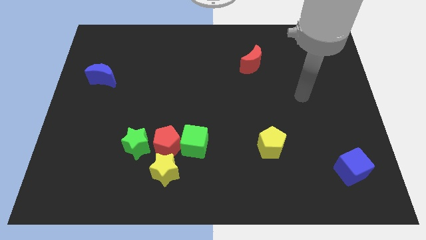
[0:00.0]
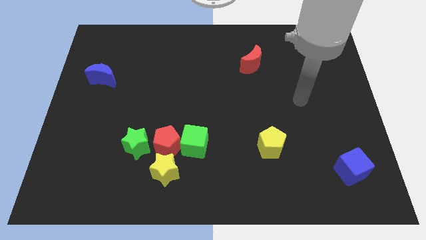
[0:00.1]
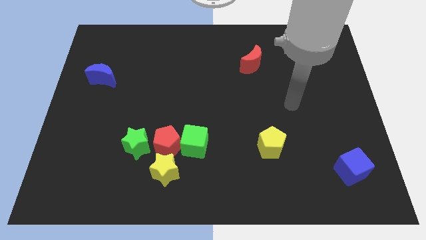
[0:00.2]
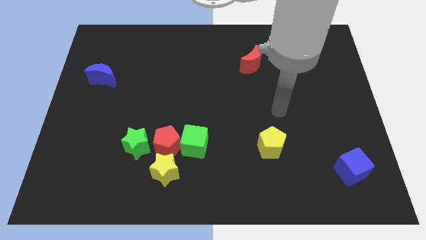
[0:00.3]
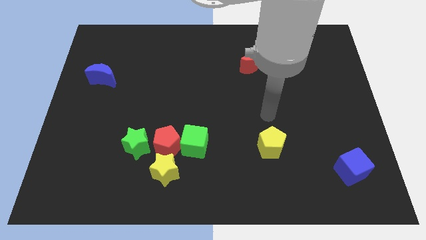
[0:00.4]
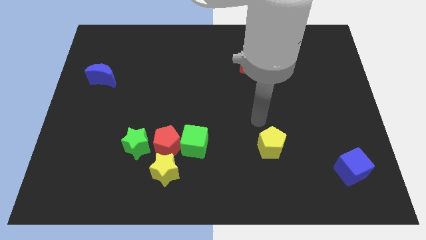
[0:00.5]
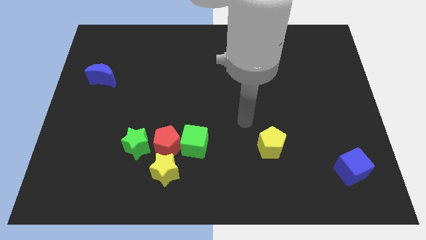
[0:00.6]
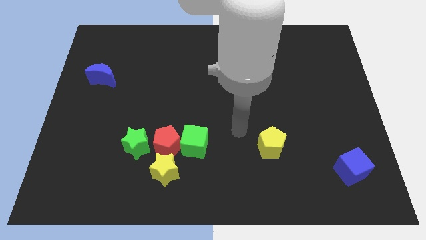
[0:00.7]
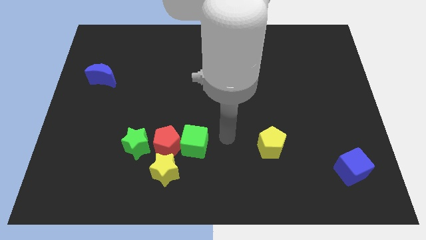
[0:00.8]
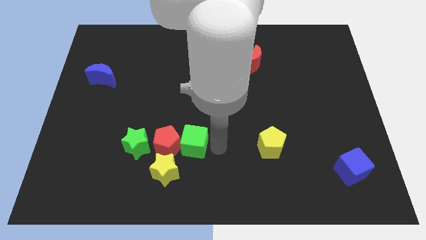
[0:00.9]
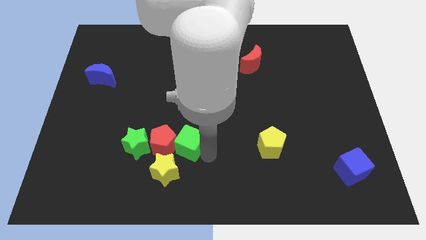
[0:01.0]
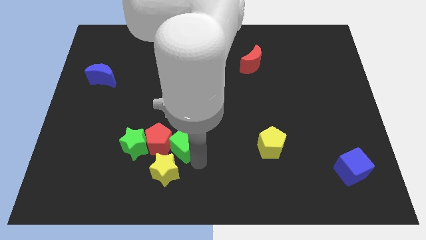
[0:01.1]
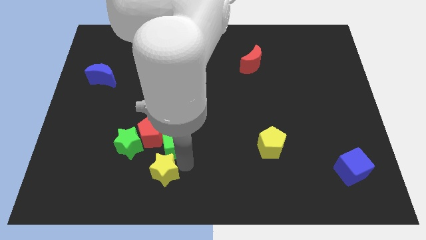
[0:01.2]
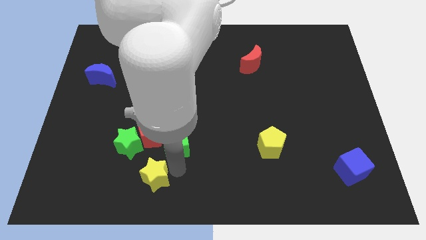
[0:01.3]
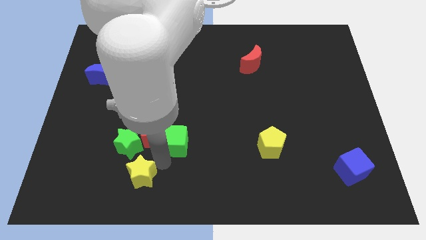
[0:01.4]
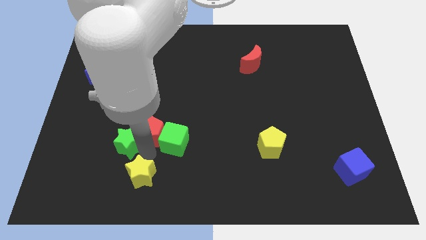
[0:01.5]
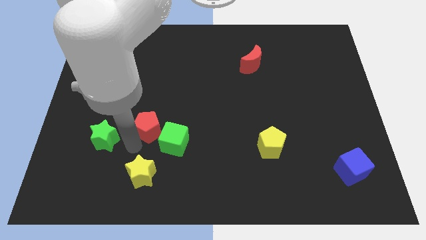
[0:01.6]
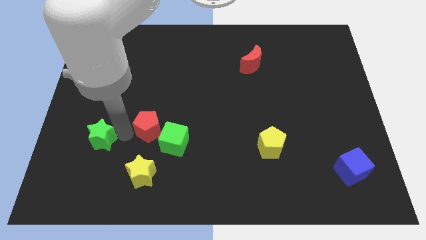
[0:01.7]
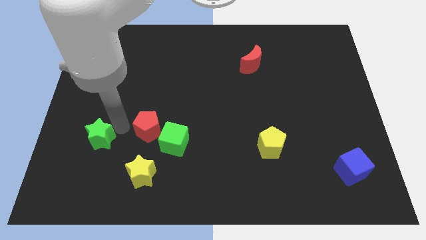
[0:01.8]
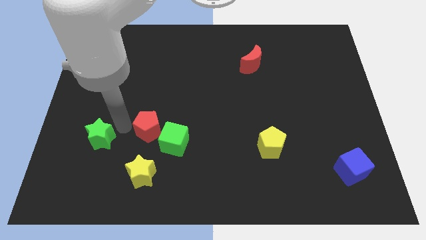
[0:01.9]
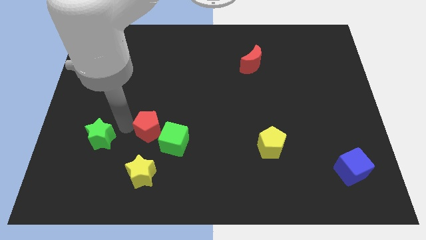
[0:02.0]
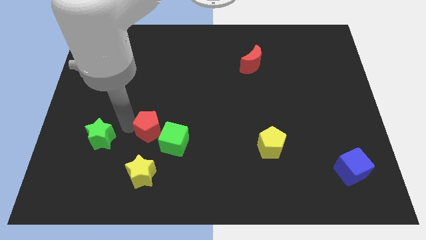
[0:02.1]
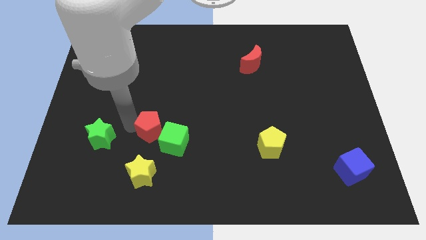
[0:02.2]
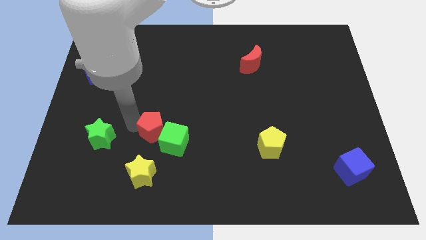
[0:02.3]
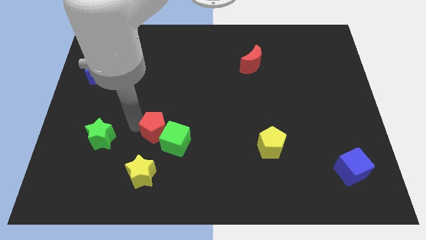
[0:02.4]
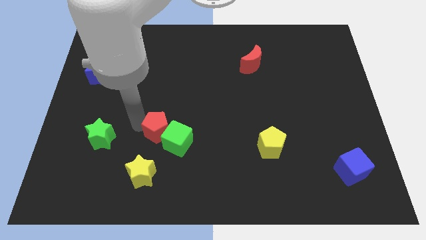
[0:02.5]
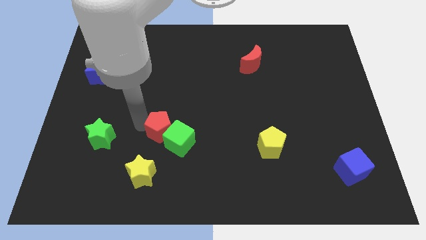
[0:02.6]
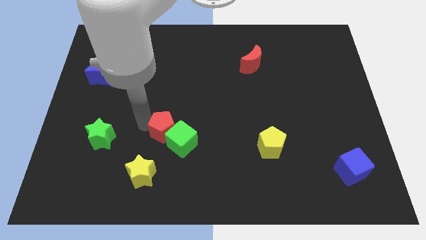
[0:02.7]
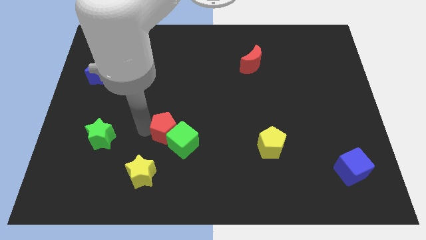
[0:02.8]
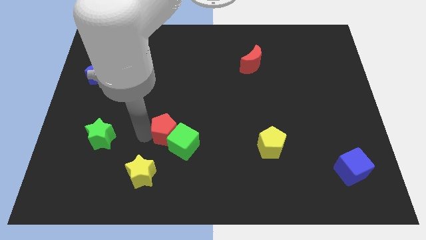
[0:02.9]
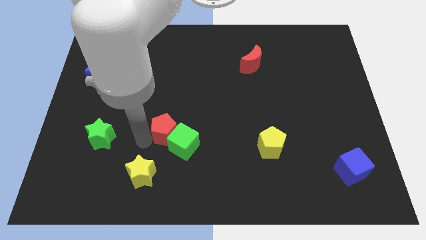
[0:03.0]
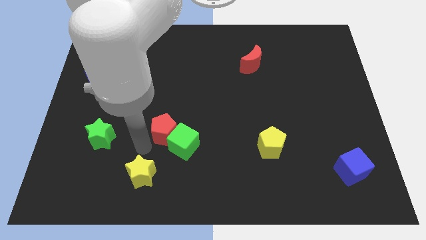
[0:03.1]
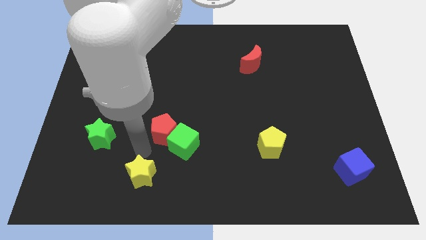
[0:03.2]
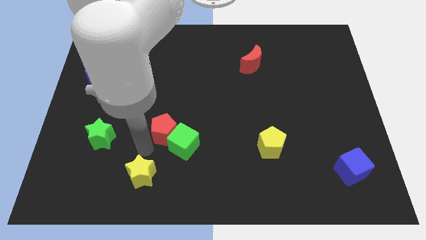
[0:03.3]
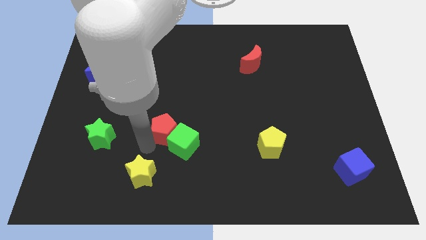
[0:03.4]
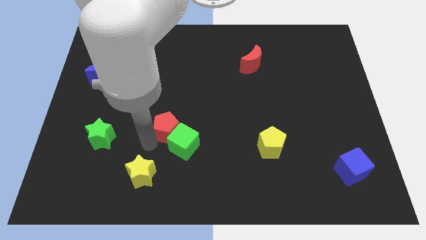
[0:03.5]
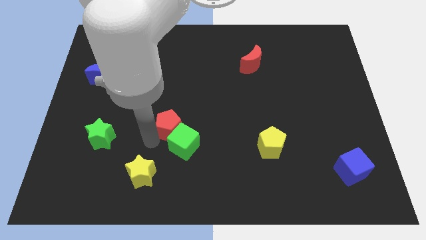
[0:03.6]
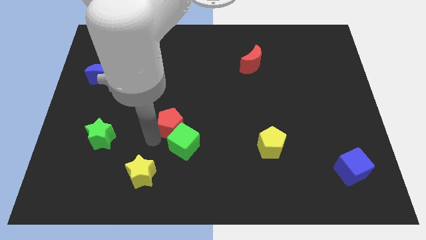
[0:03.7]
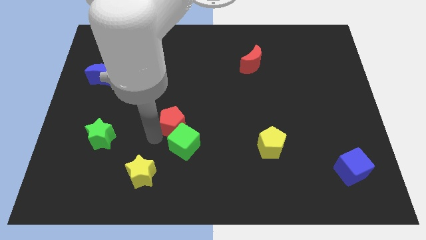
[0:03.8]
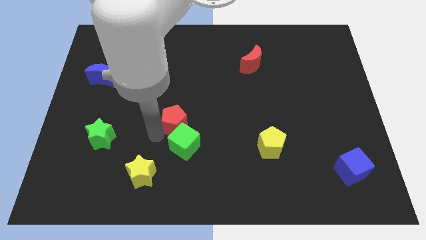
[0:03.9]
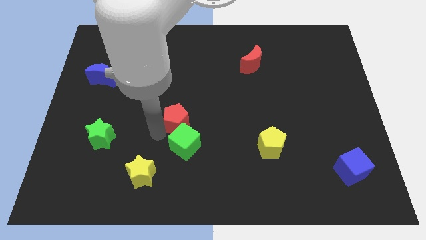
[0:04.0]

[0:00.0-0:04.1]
separate the red pentagon from the clump

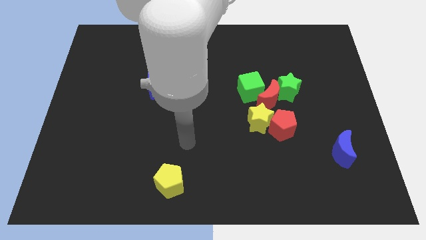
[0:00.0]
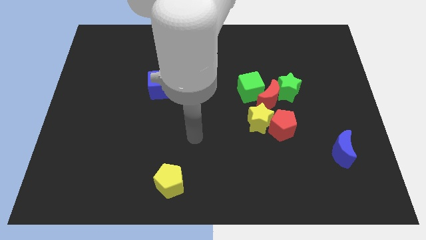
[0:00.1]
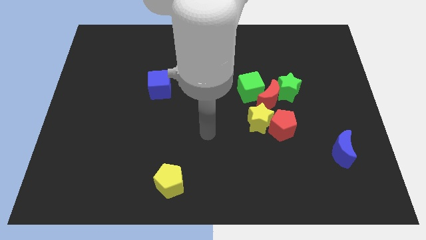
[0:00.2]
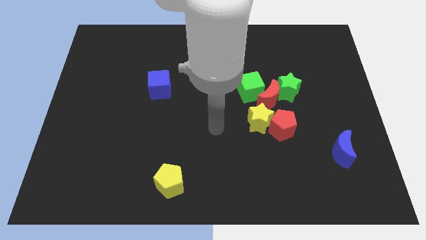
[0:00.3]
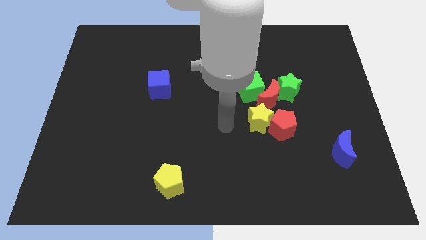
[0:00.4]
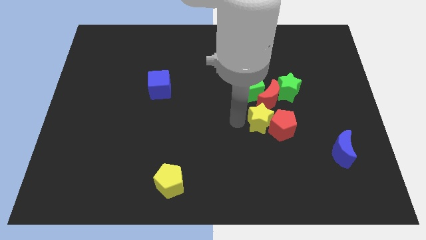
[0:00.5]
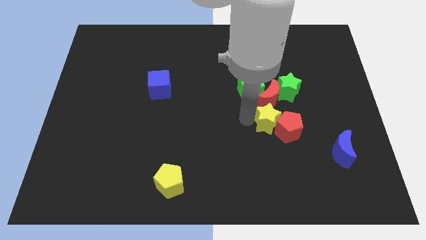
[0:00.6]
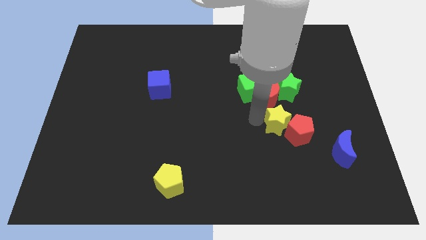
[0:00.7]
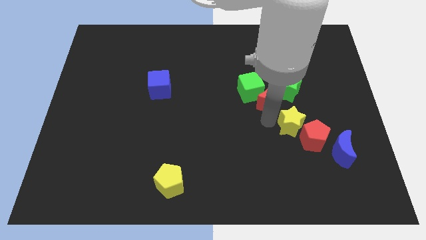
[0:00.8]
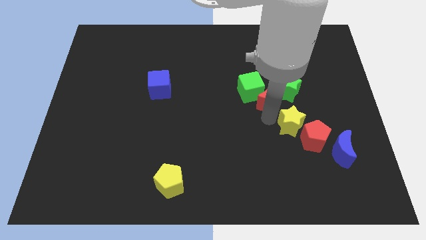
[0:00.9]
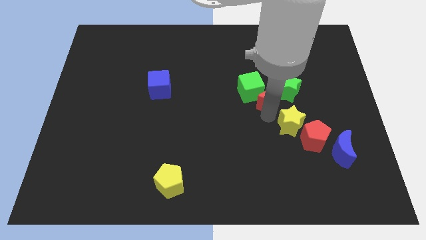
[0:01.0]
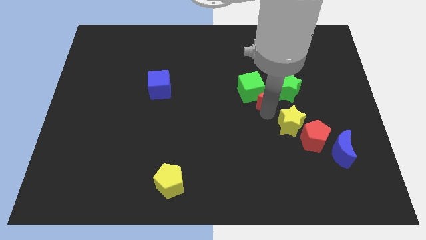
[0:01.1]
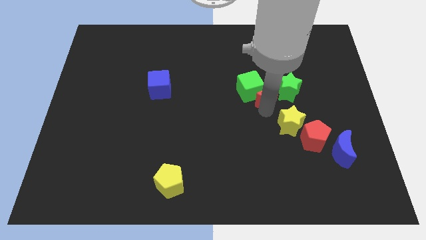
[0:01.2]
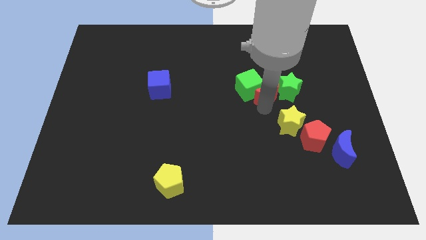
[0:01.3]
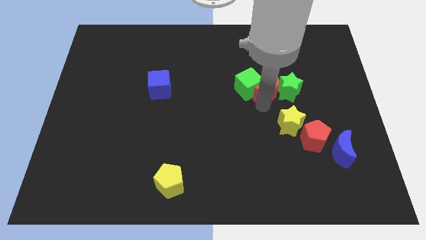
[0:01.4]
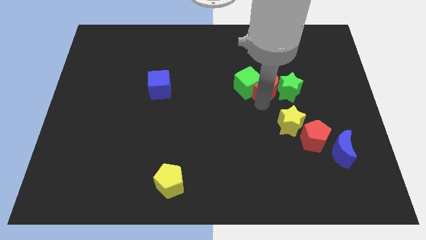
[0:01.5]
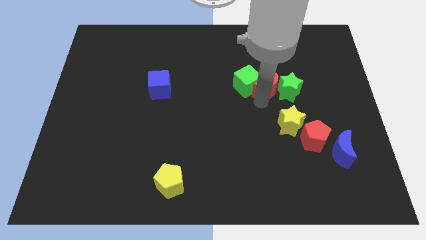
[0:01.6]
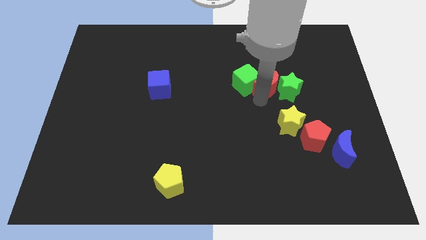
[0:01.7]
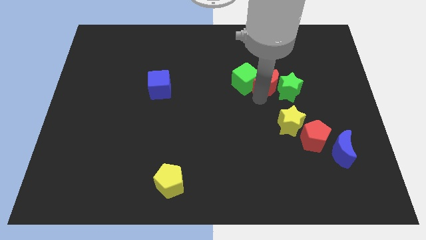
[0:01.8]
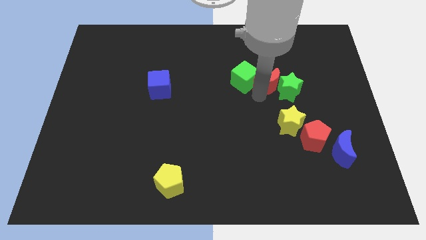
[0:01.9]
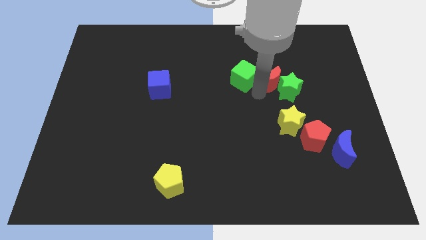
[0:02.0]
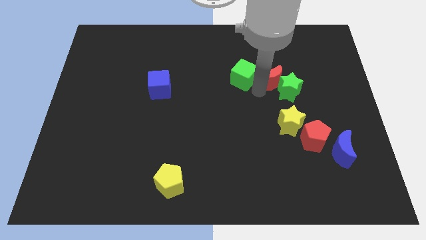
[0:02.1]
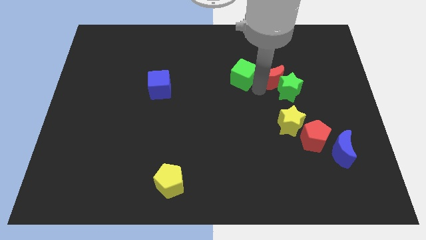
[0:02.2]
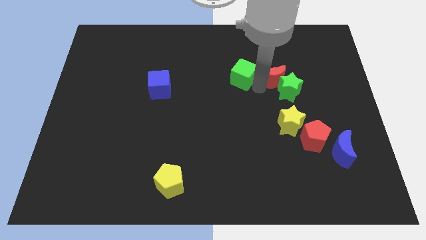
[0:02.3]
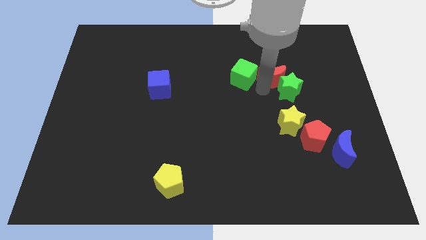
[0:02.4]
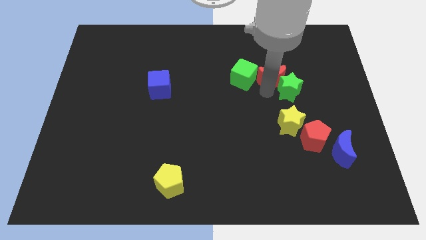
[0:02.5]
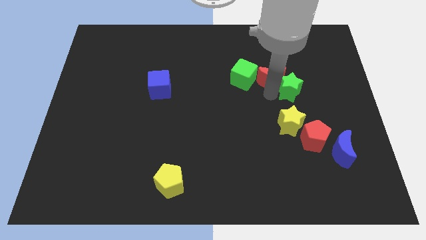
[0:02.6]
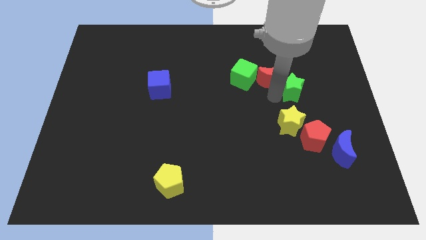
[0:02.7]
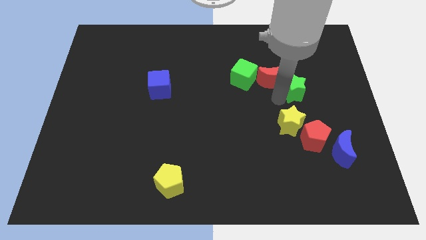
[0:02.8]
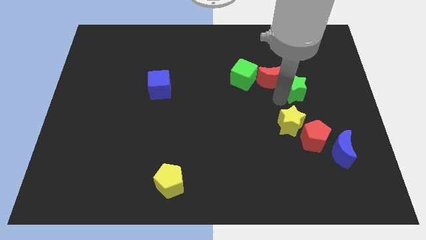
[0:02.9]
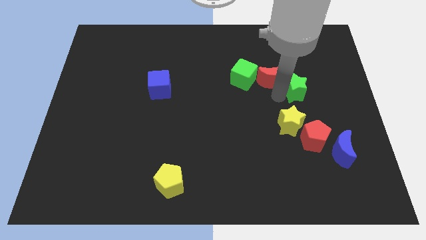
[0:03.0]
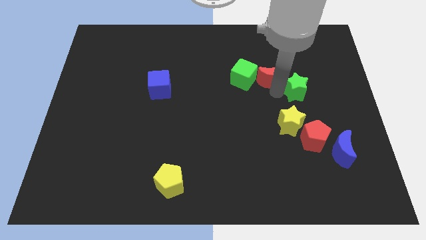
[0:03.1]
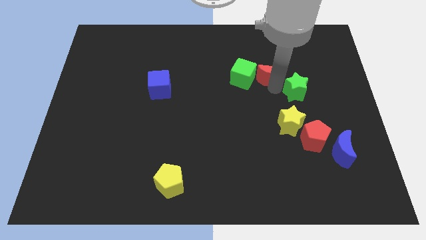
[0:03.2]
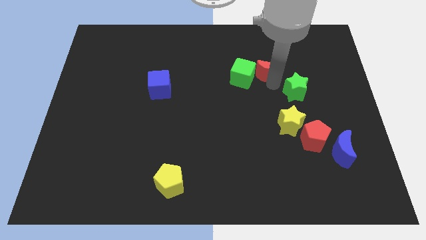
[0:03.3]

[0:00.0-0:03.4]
separate the red moon from the group

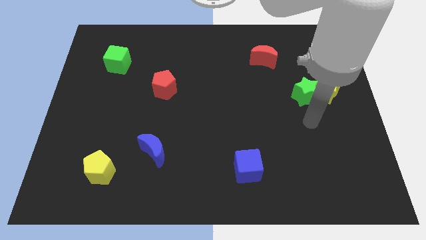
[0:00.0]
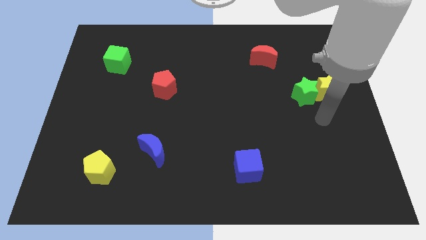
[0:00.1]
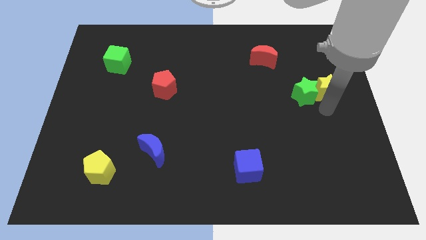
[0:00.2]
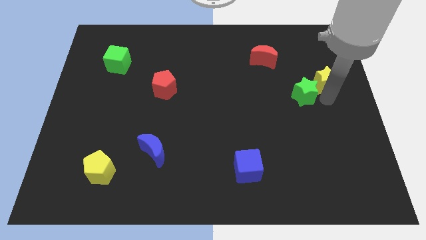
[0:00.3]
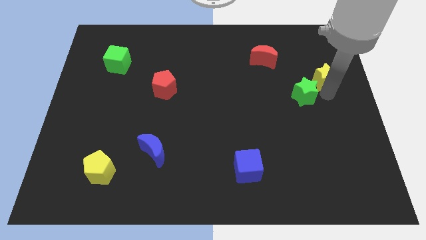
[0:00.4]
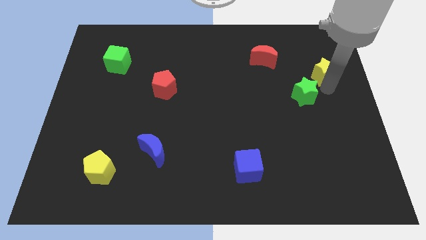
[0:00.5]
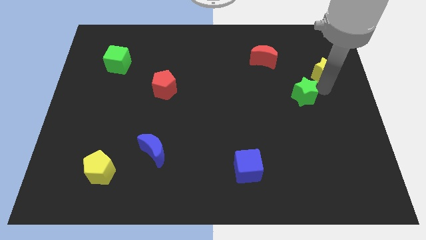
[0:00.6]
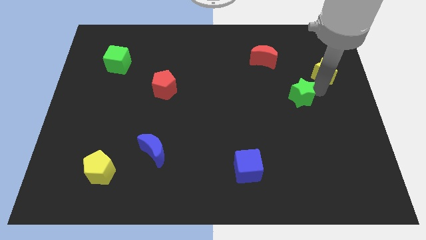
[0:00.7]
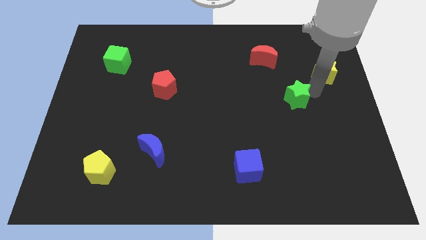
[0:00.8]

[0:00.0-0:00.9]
separate the green star from the yellow star

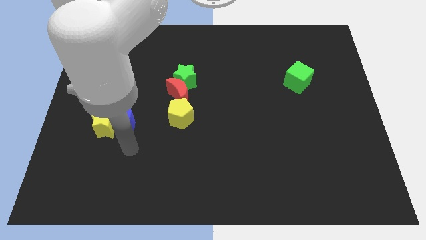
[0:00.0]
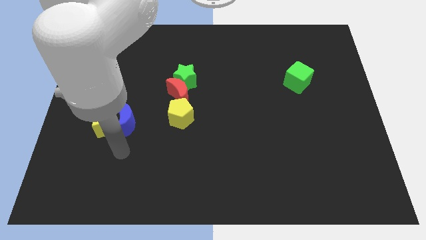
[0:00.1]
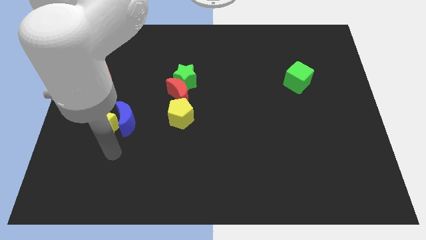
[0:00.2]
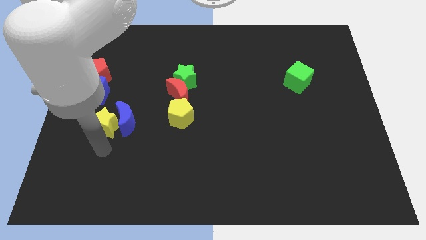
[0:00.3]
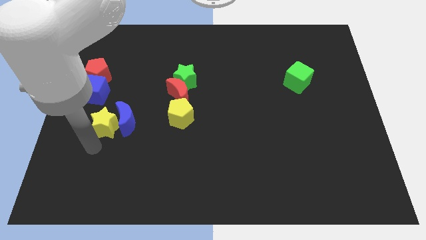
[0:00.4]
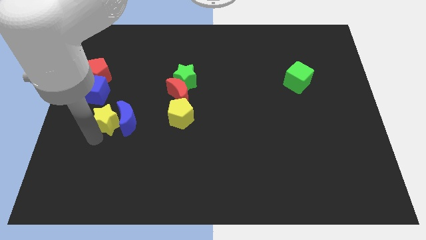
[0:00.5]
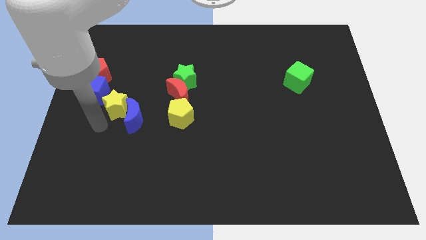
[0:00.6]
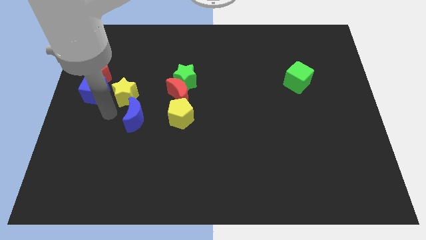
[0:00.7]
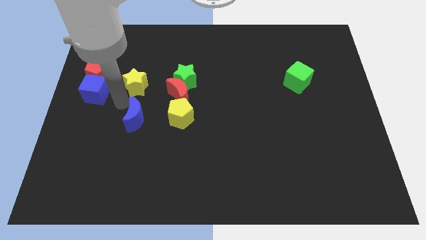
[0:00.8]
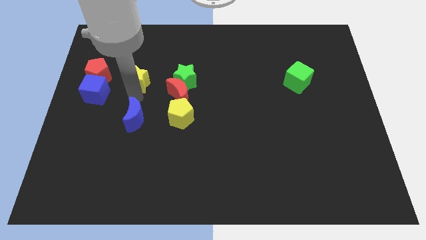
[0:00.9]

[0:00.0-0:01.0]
separate the blue moon from the yellow star

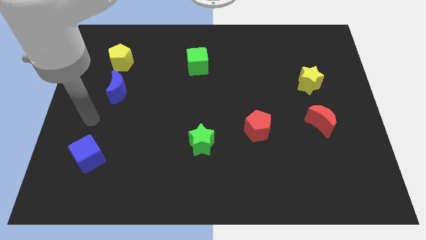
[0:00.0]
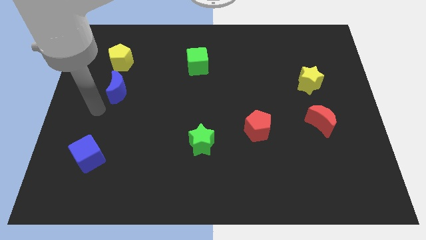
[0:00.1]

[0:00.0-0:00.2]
move the blue moon away from the yellow pentagon
